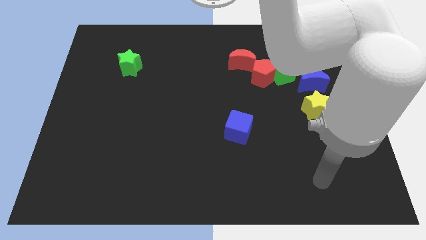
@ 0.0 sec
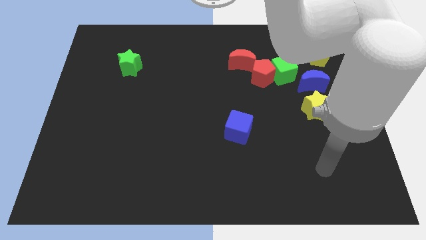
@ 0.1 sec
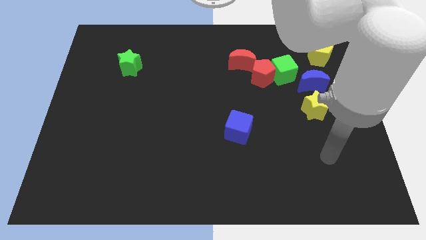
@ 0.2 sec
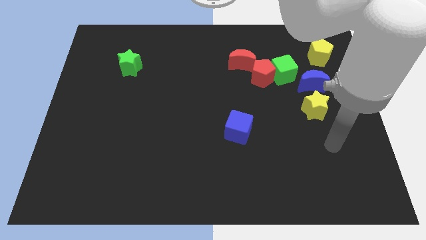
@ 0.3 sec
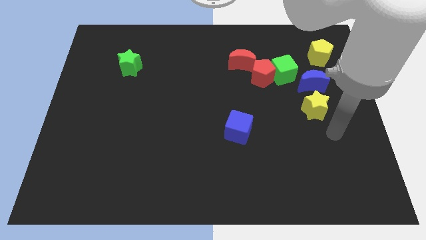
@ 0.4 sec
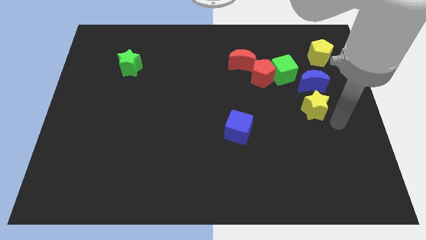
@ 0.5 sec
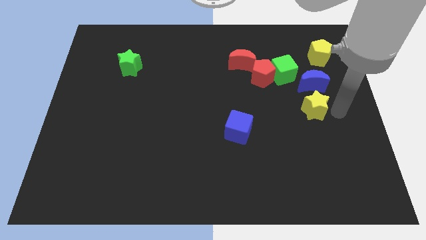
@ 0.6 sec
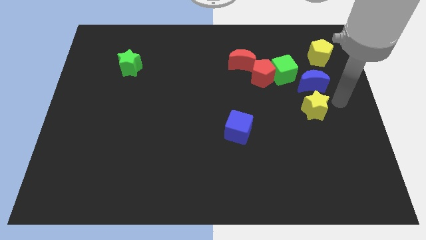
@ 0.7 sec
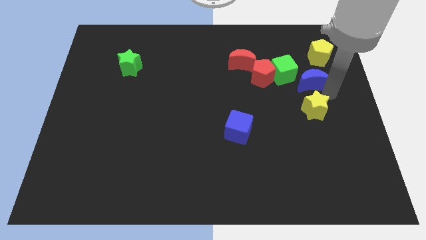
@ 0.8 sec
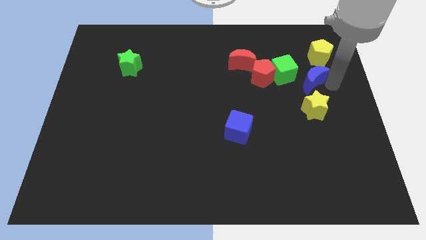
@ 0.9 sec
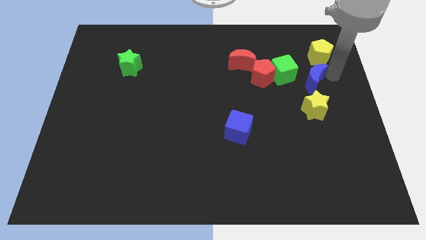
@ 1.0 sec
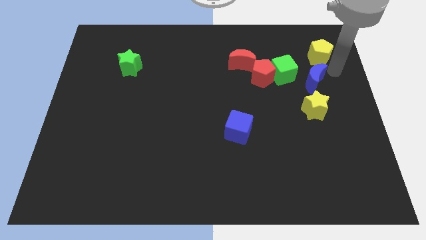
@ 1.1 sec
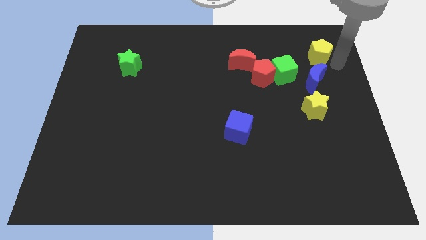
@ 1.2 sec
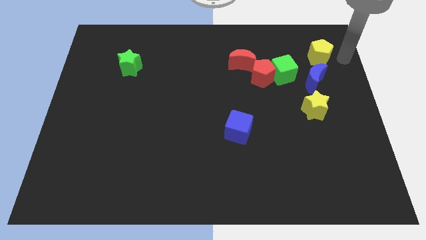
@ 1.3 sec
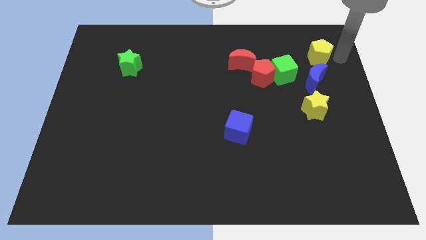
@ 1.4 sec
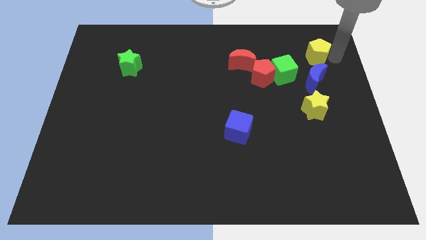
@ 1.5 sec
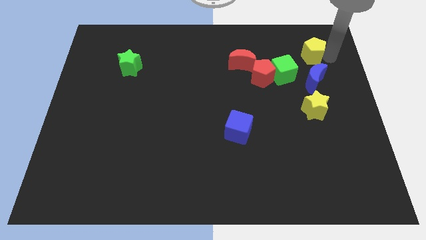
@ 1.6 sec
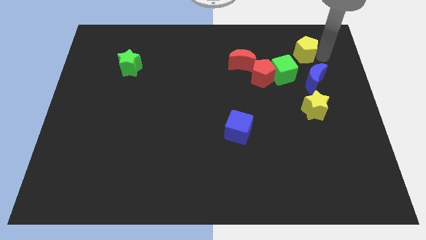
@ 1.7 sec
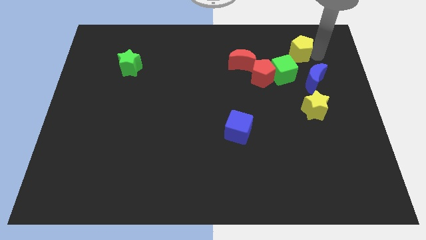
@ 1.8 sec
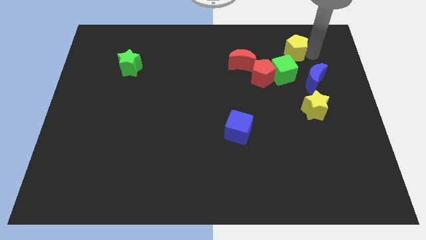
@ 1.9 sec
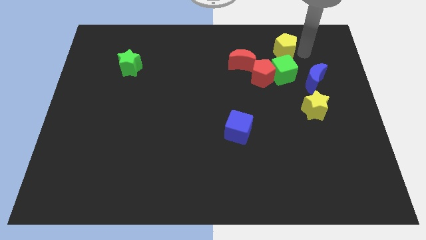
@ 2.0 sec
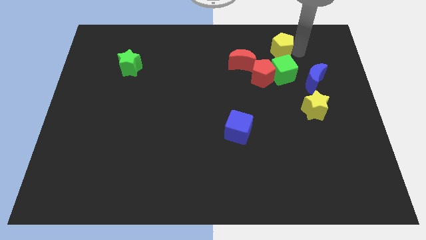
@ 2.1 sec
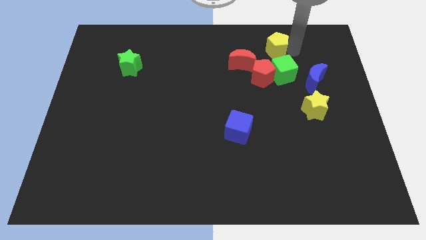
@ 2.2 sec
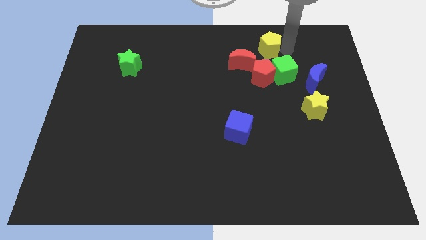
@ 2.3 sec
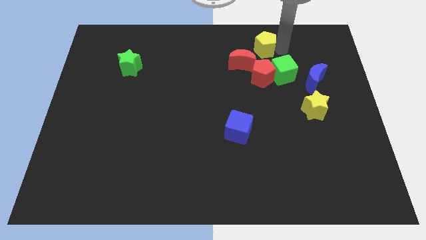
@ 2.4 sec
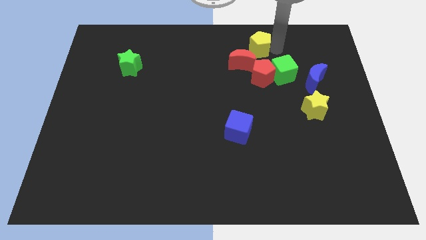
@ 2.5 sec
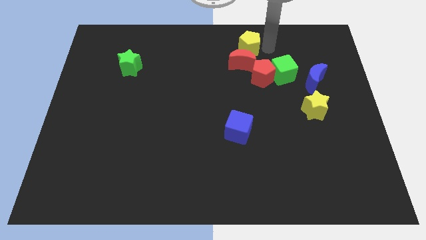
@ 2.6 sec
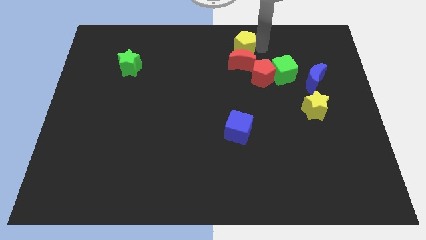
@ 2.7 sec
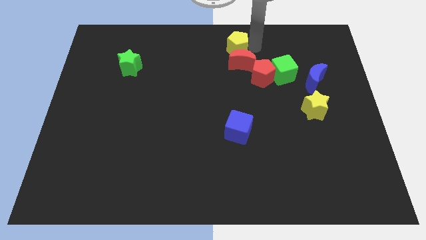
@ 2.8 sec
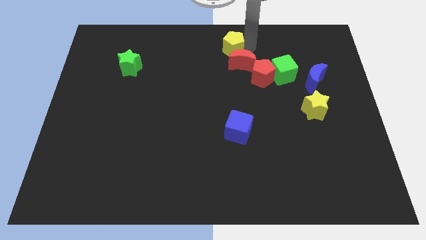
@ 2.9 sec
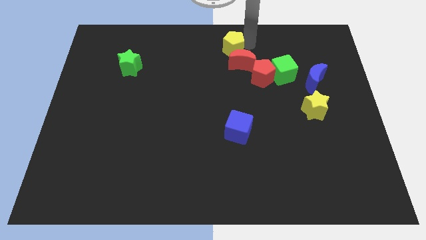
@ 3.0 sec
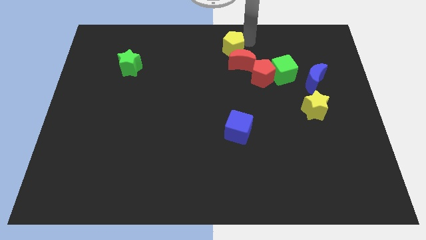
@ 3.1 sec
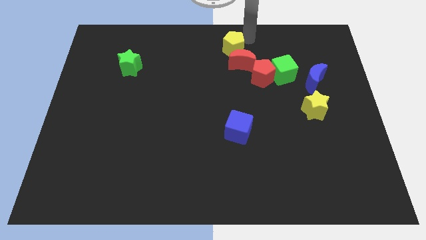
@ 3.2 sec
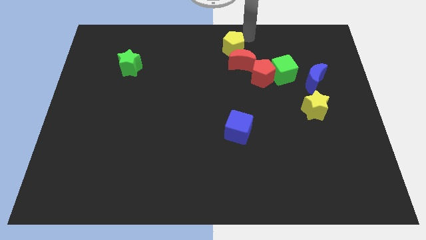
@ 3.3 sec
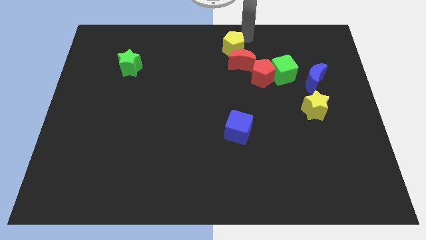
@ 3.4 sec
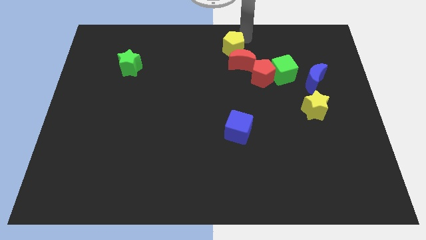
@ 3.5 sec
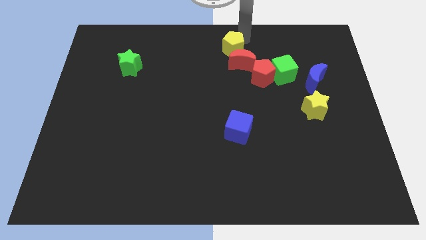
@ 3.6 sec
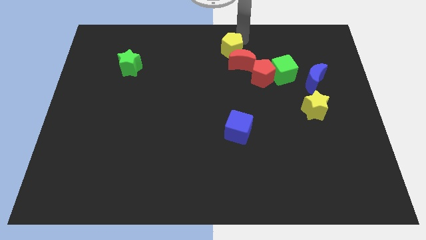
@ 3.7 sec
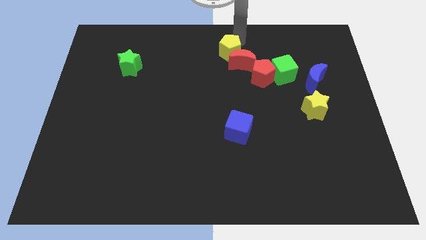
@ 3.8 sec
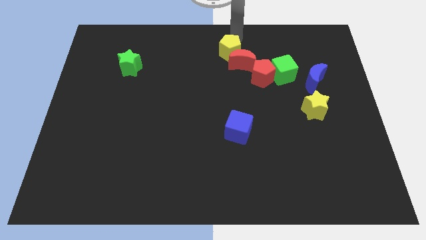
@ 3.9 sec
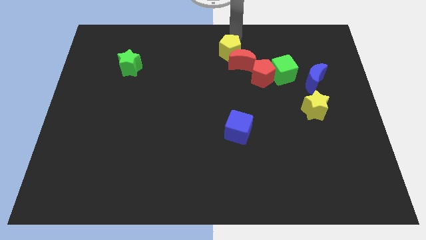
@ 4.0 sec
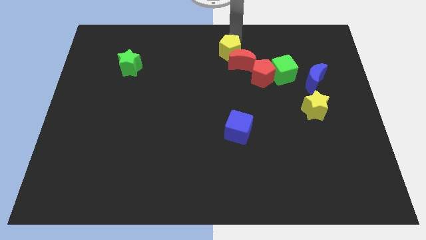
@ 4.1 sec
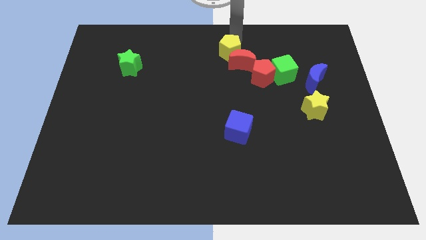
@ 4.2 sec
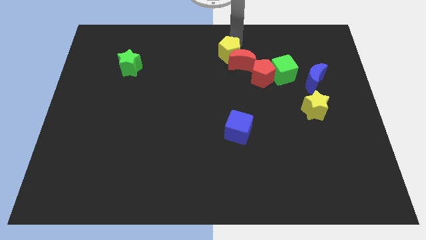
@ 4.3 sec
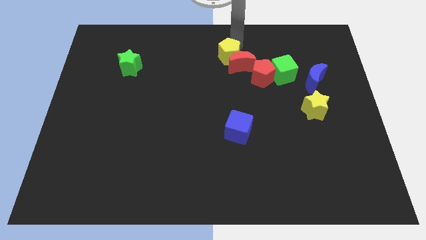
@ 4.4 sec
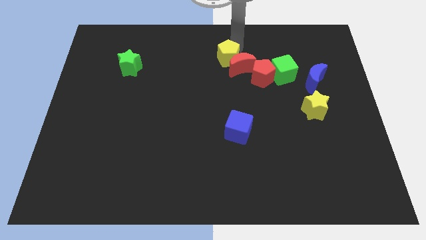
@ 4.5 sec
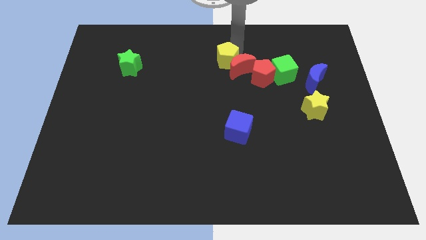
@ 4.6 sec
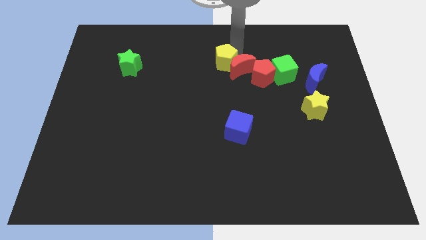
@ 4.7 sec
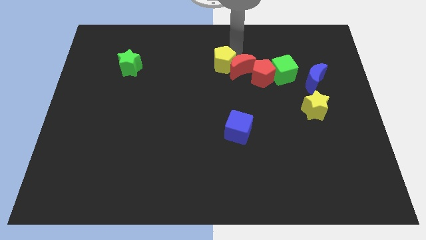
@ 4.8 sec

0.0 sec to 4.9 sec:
move the yellow pentagon diagonally down and to the left of the red moon

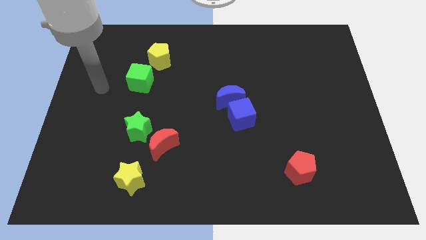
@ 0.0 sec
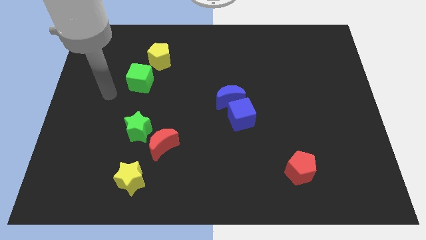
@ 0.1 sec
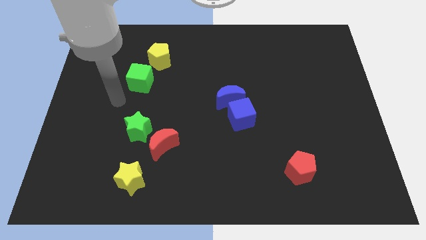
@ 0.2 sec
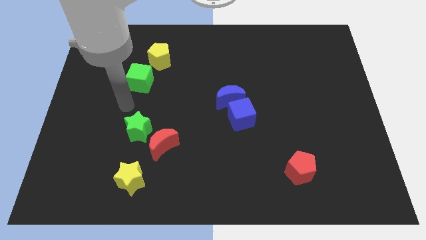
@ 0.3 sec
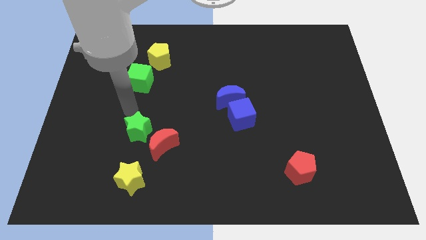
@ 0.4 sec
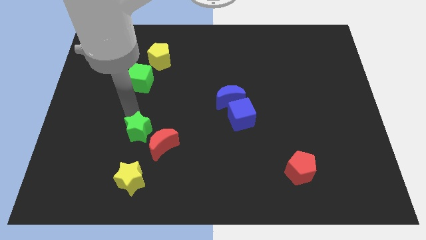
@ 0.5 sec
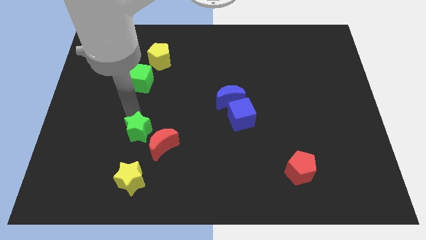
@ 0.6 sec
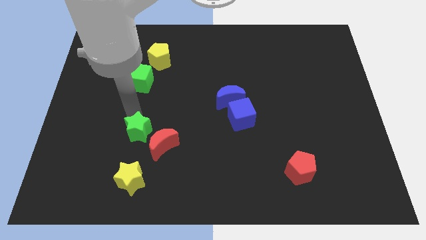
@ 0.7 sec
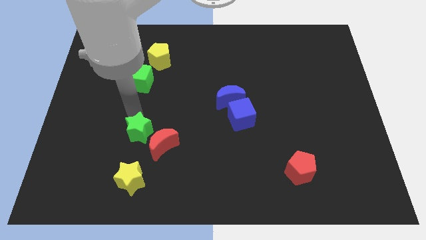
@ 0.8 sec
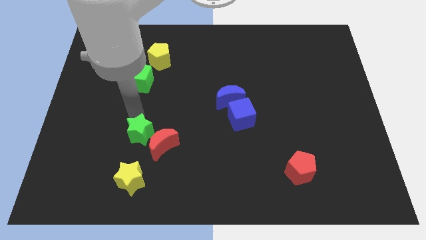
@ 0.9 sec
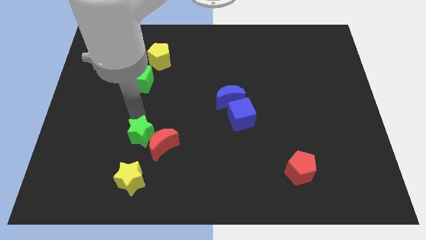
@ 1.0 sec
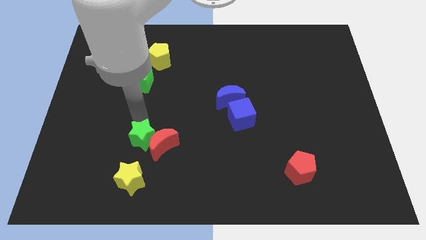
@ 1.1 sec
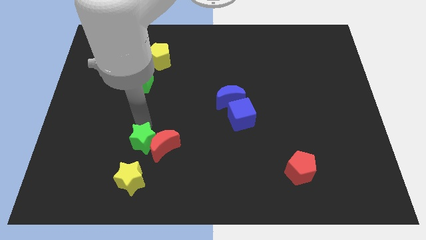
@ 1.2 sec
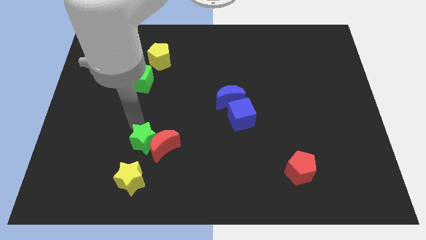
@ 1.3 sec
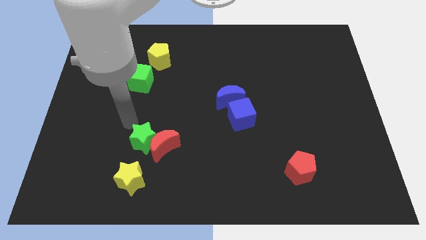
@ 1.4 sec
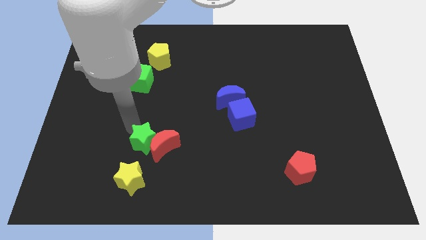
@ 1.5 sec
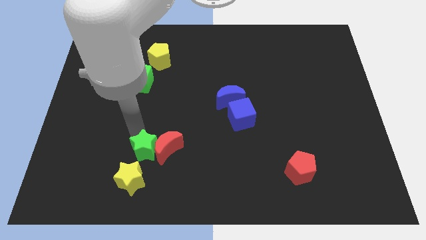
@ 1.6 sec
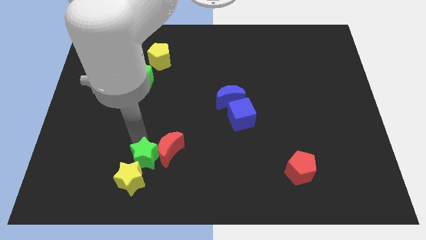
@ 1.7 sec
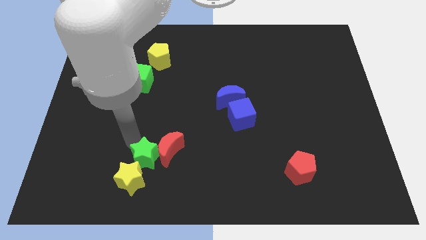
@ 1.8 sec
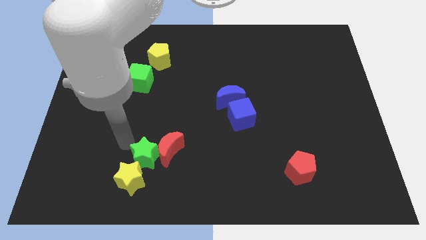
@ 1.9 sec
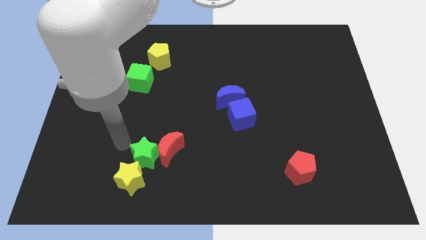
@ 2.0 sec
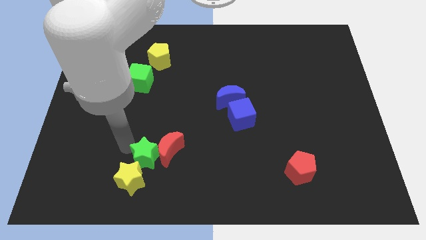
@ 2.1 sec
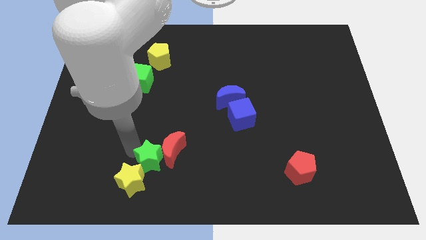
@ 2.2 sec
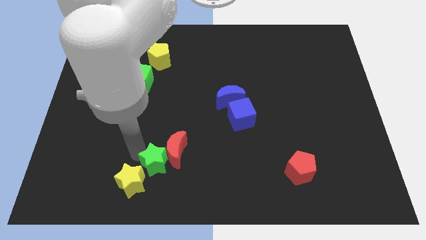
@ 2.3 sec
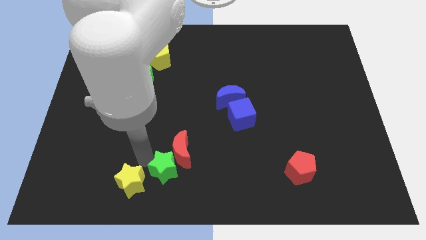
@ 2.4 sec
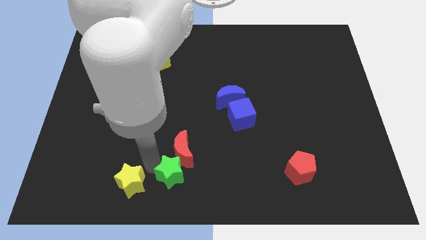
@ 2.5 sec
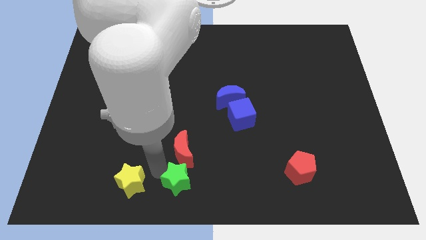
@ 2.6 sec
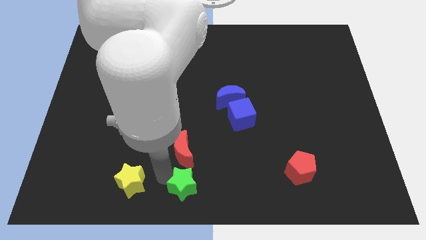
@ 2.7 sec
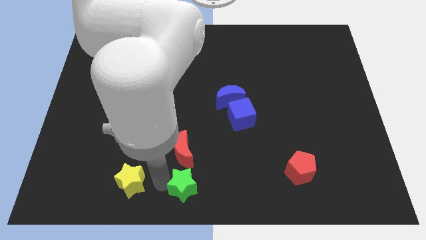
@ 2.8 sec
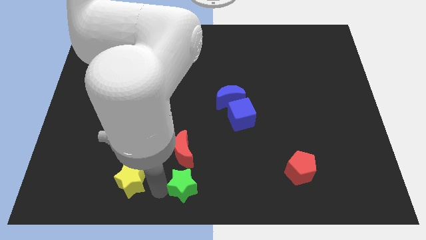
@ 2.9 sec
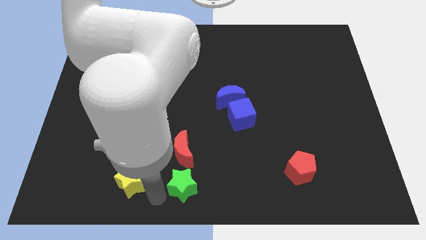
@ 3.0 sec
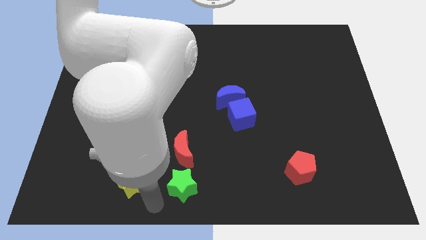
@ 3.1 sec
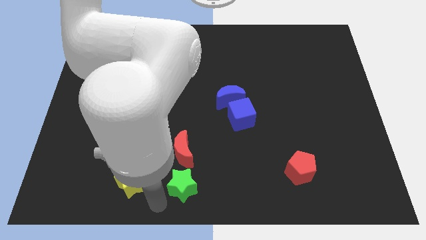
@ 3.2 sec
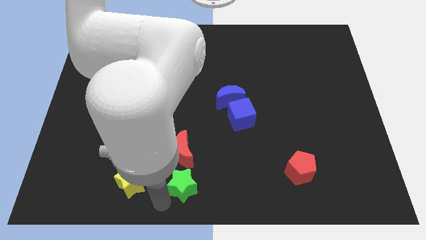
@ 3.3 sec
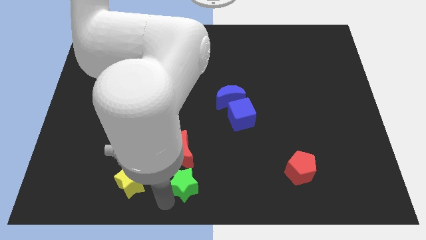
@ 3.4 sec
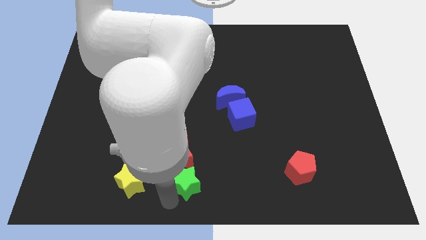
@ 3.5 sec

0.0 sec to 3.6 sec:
push the green star to the bottom right of the red moon
